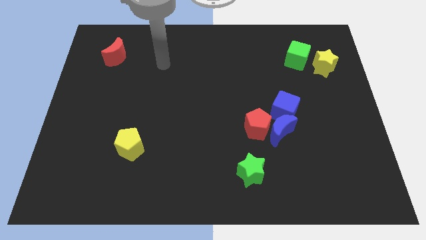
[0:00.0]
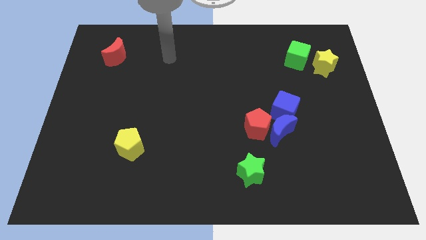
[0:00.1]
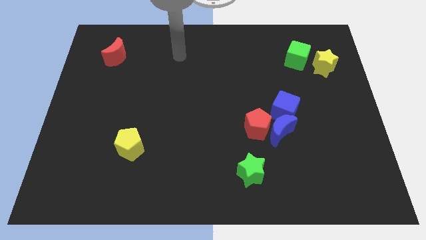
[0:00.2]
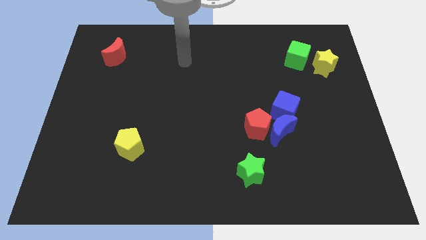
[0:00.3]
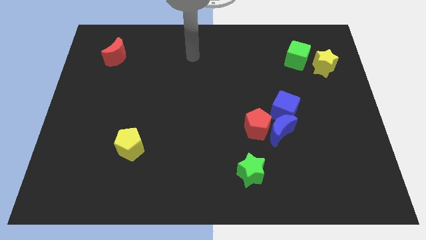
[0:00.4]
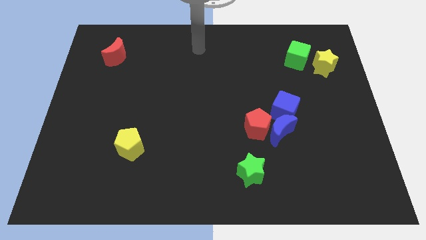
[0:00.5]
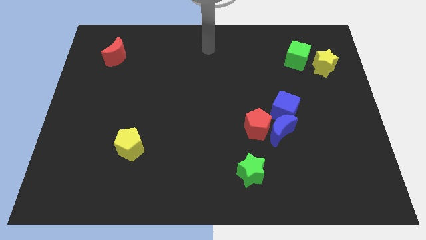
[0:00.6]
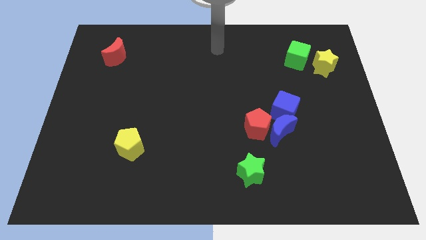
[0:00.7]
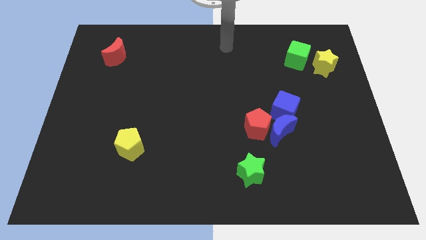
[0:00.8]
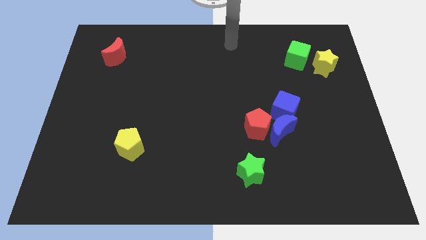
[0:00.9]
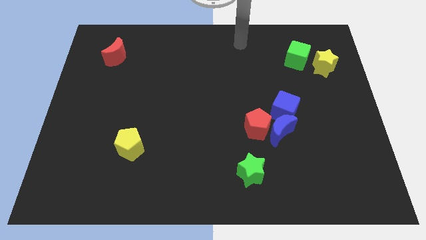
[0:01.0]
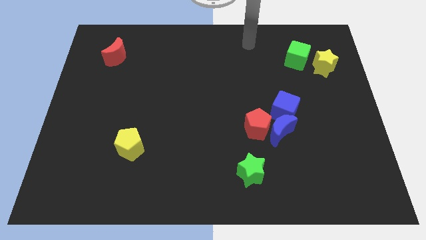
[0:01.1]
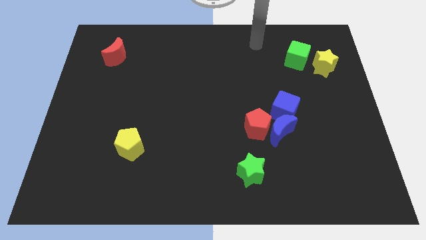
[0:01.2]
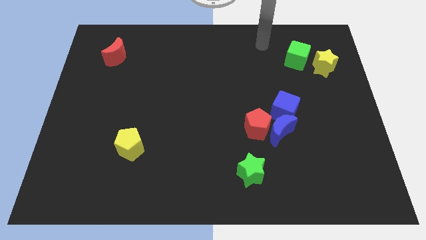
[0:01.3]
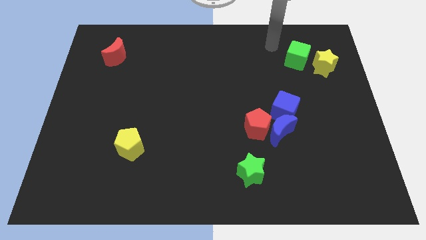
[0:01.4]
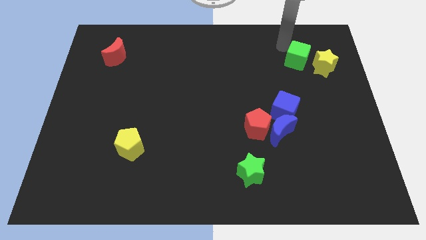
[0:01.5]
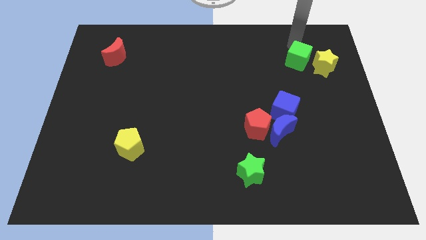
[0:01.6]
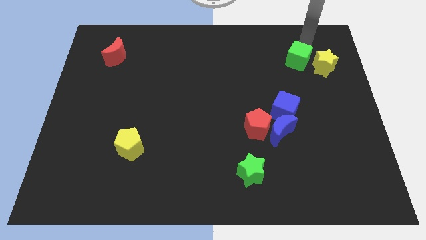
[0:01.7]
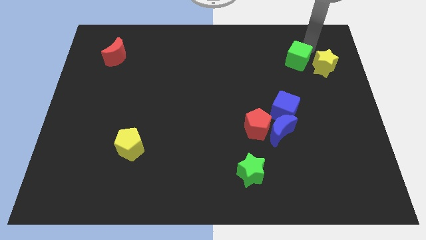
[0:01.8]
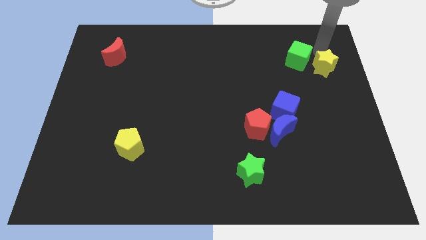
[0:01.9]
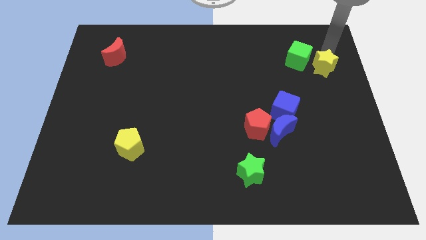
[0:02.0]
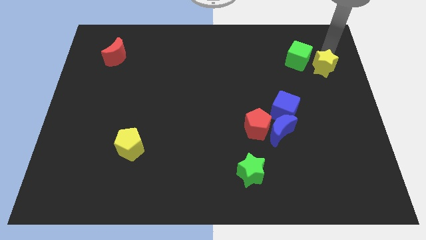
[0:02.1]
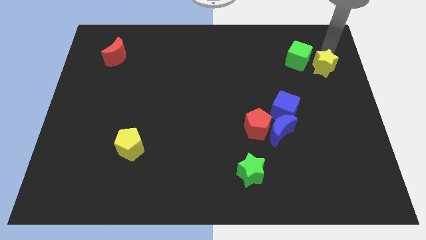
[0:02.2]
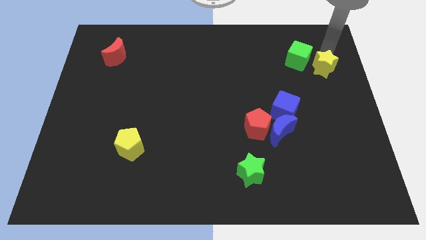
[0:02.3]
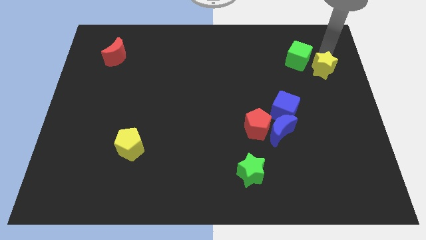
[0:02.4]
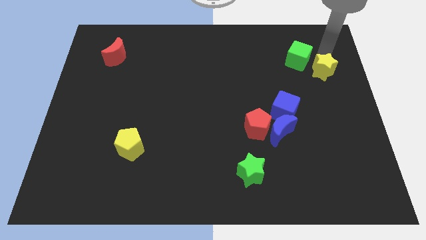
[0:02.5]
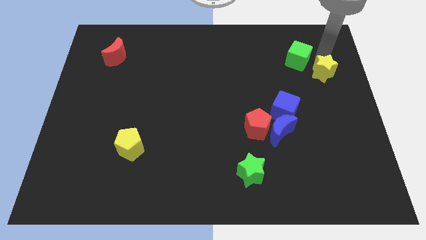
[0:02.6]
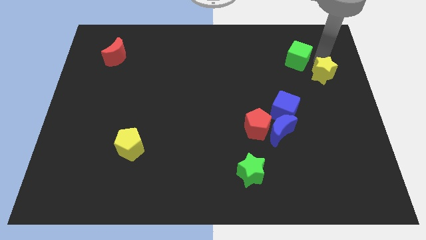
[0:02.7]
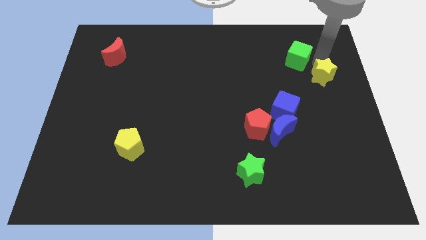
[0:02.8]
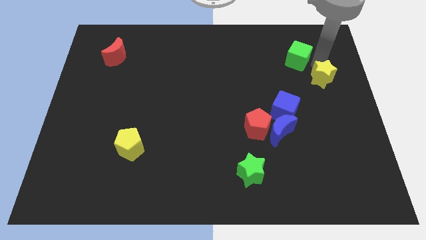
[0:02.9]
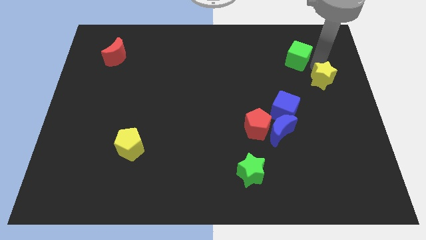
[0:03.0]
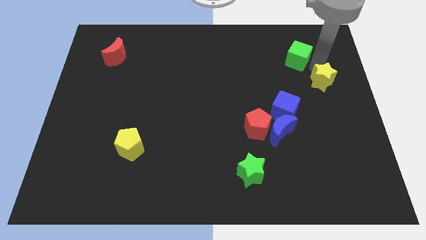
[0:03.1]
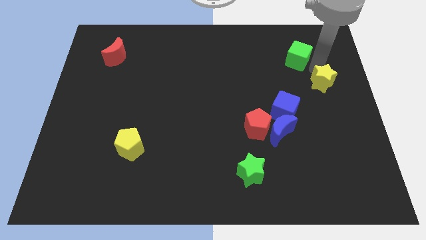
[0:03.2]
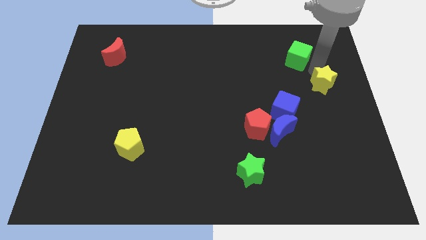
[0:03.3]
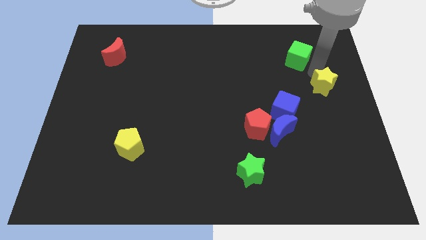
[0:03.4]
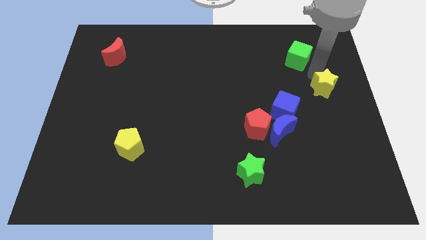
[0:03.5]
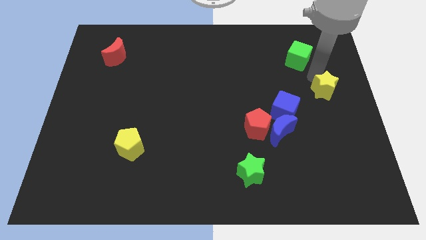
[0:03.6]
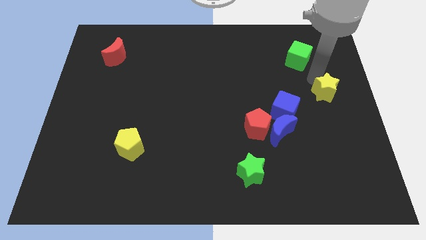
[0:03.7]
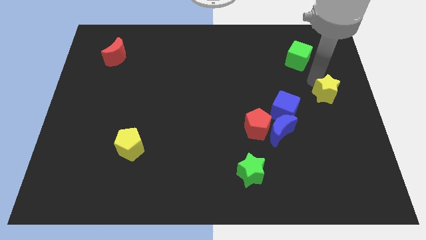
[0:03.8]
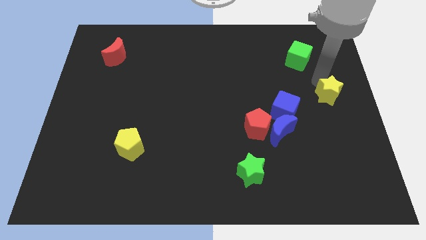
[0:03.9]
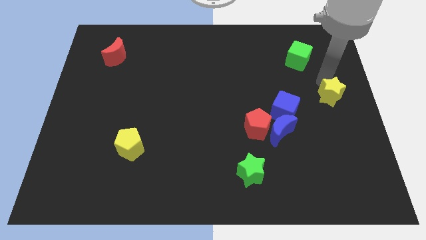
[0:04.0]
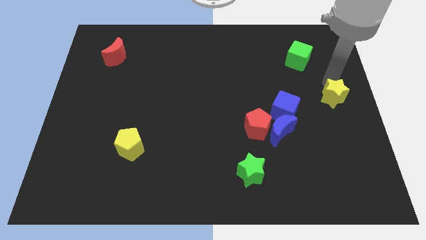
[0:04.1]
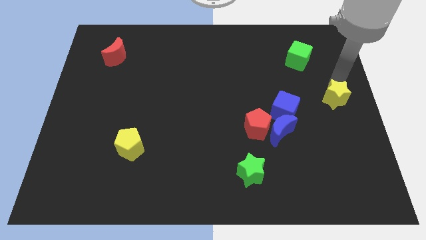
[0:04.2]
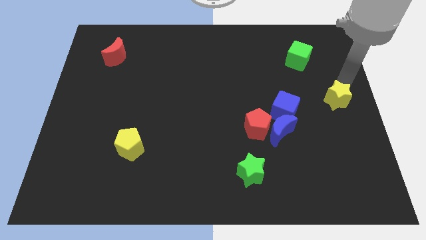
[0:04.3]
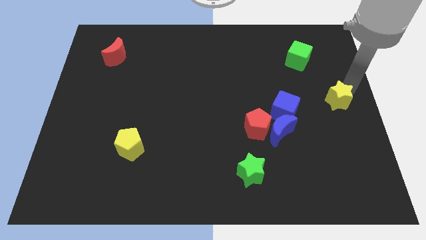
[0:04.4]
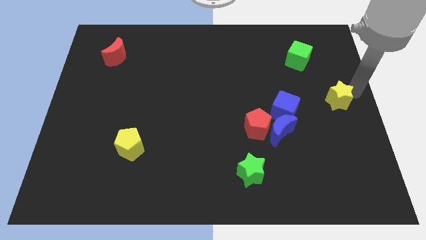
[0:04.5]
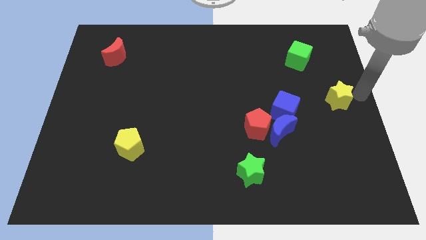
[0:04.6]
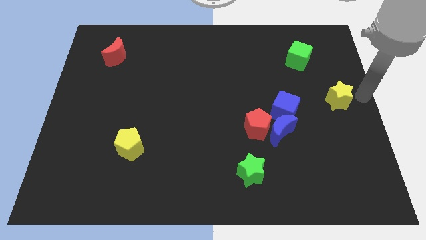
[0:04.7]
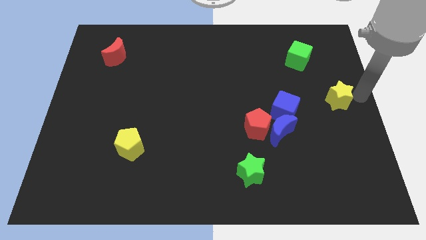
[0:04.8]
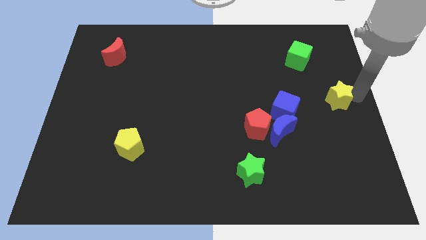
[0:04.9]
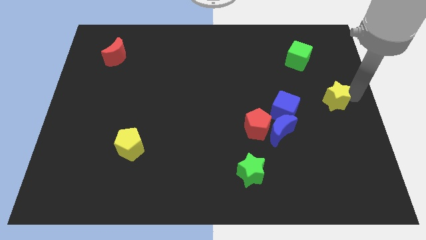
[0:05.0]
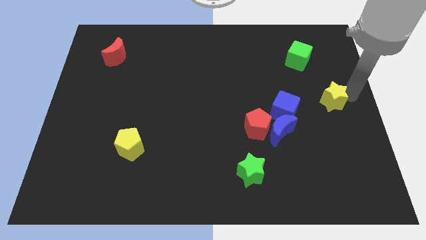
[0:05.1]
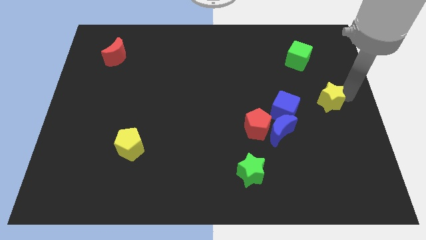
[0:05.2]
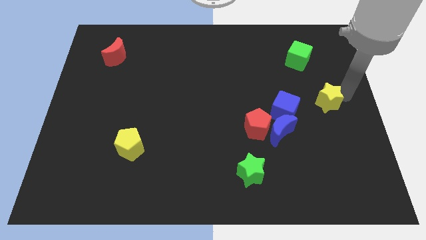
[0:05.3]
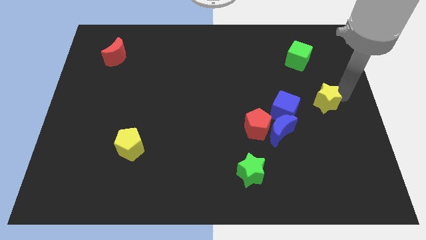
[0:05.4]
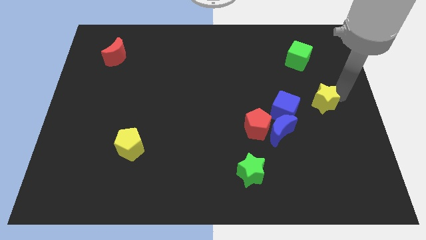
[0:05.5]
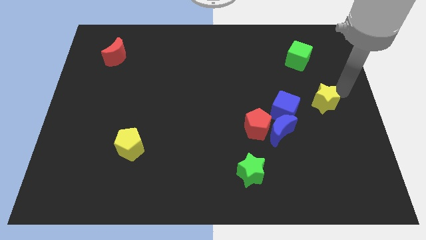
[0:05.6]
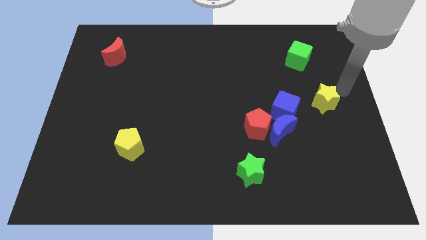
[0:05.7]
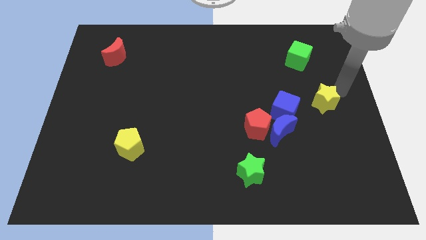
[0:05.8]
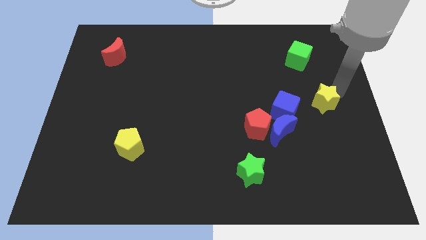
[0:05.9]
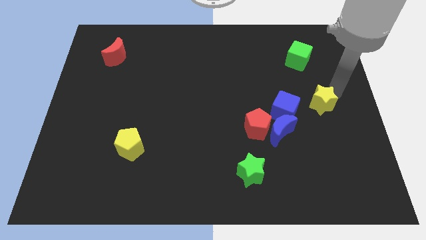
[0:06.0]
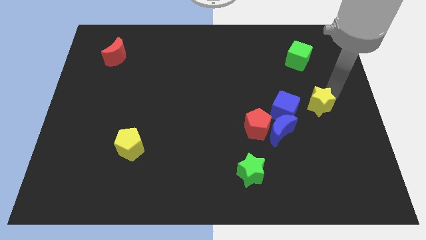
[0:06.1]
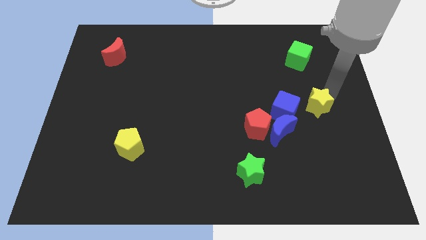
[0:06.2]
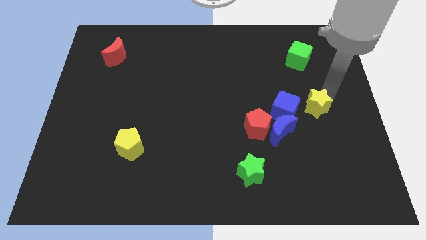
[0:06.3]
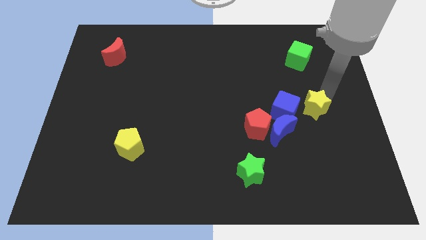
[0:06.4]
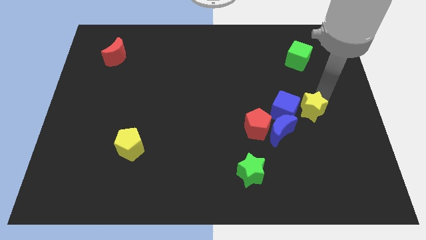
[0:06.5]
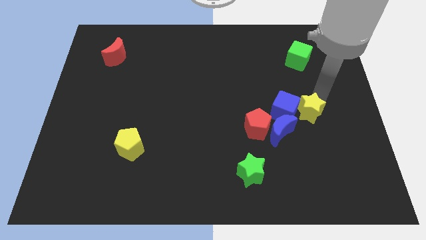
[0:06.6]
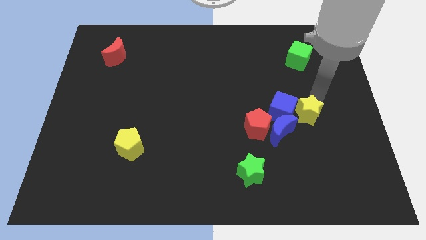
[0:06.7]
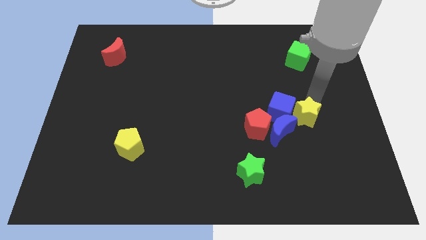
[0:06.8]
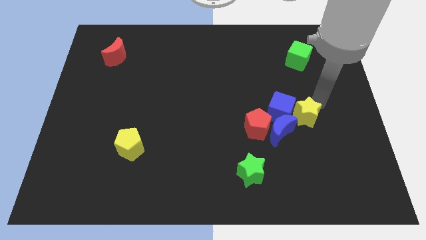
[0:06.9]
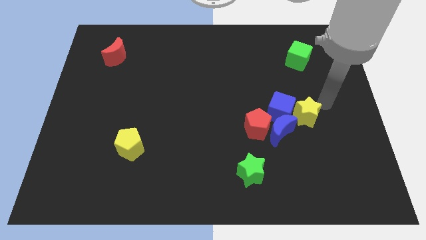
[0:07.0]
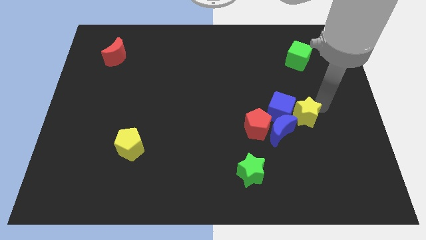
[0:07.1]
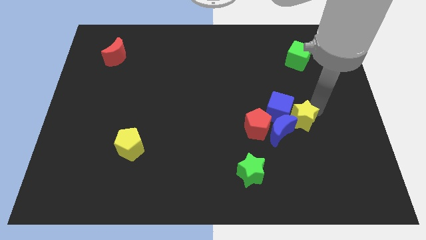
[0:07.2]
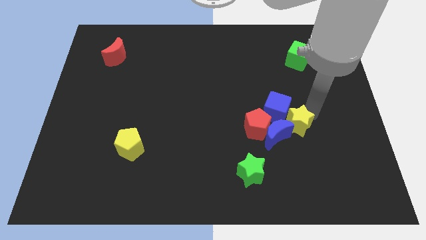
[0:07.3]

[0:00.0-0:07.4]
move the yellow star to the blue moon

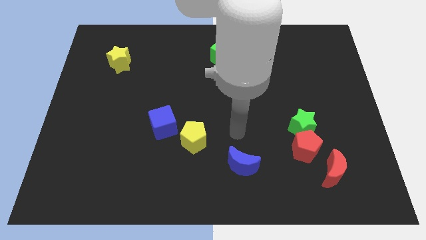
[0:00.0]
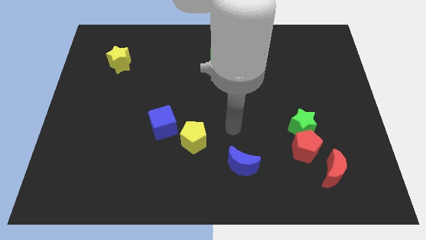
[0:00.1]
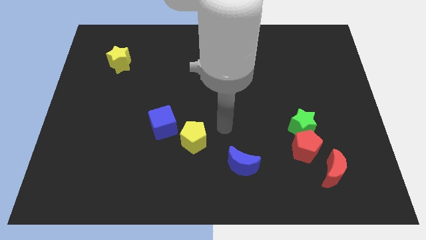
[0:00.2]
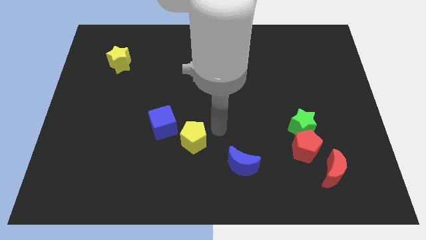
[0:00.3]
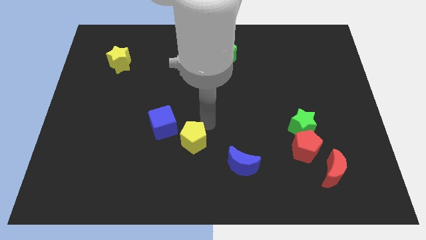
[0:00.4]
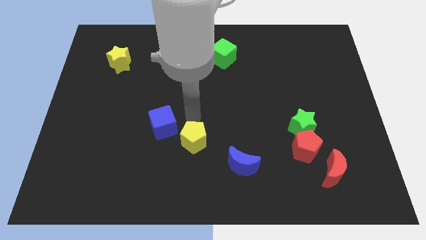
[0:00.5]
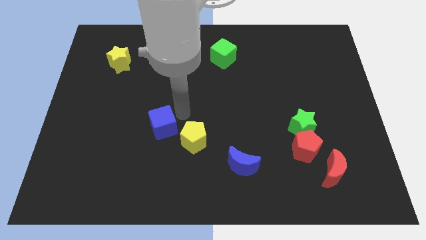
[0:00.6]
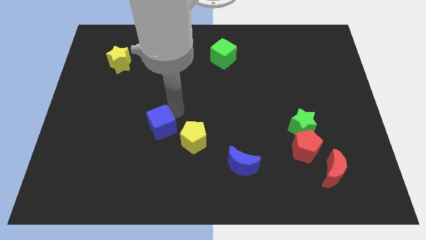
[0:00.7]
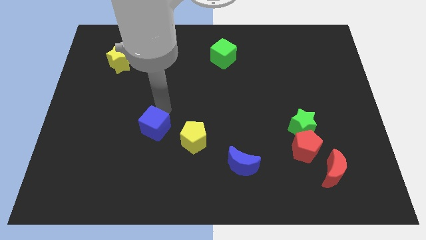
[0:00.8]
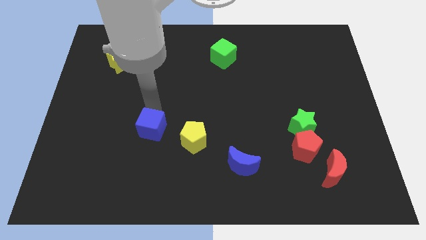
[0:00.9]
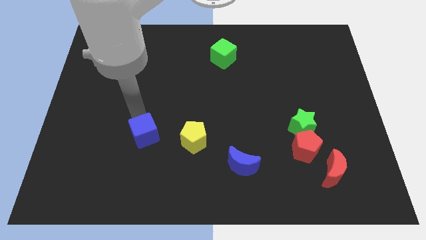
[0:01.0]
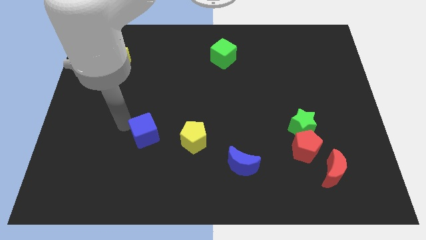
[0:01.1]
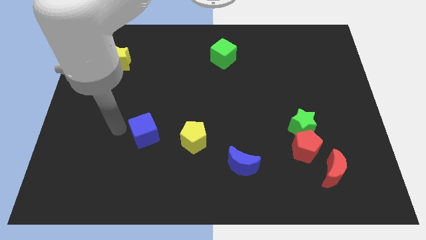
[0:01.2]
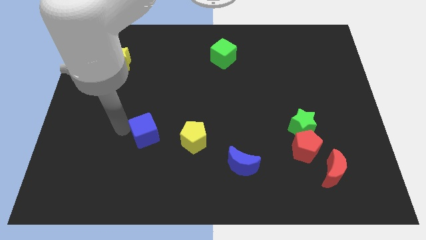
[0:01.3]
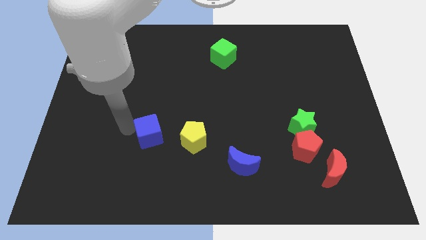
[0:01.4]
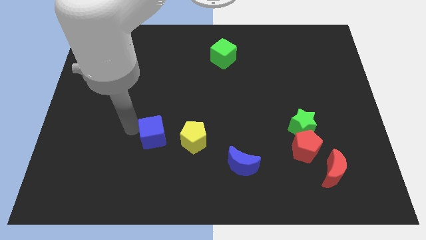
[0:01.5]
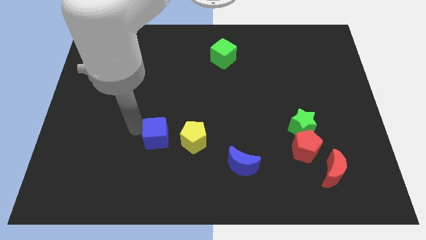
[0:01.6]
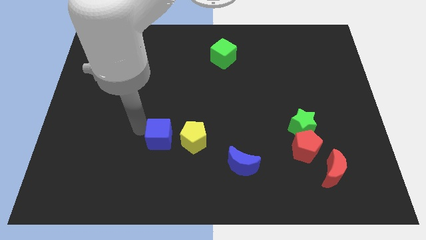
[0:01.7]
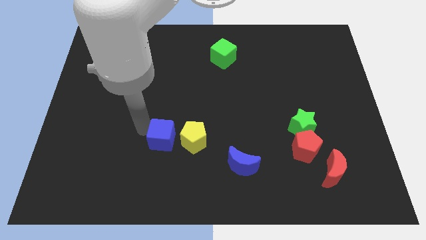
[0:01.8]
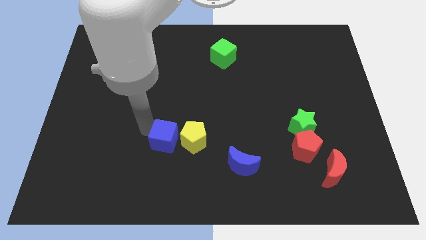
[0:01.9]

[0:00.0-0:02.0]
move the blue cube close to the yellow pentagon
